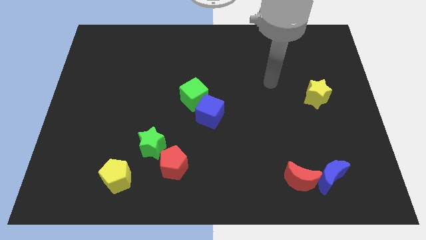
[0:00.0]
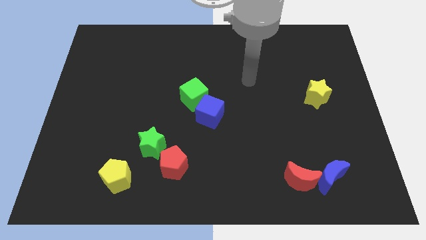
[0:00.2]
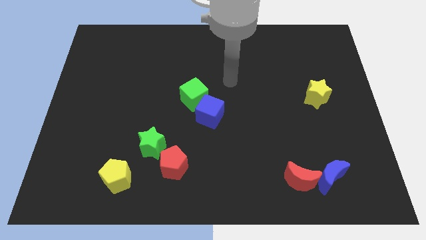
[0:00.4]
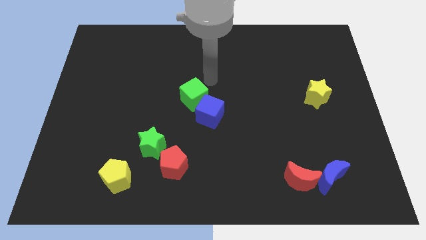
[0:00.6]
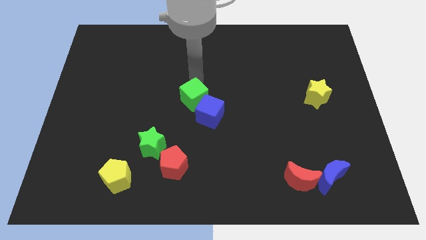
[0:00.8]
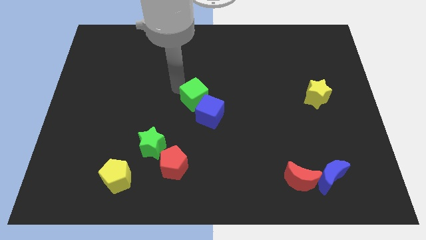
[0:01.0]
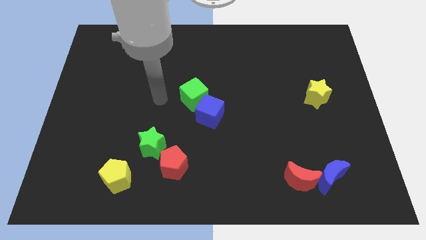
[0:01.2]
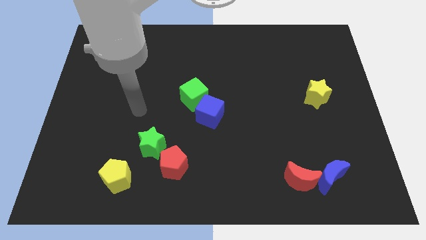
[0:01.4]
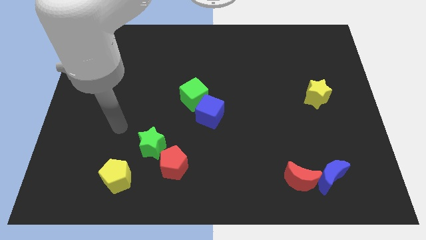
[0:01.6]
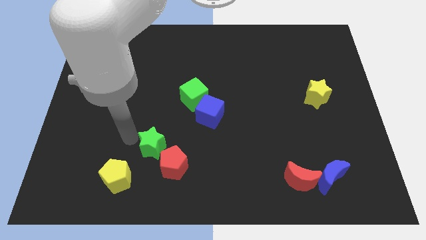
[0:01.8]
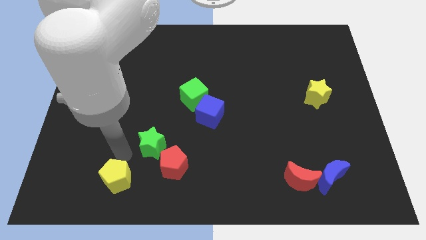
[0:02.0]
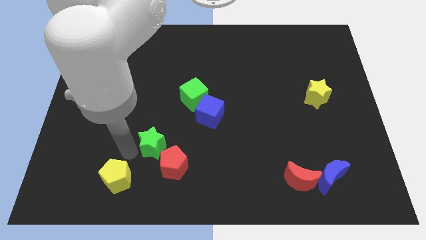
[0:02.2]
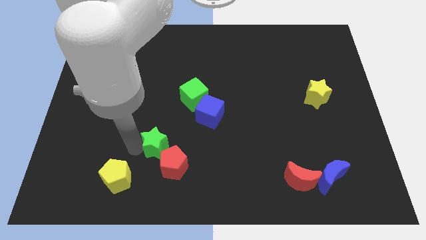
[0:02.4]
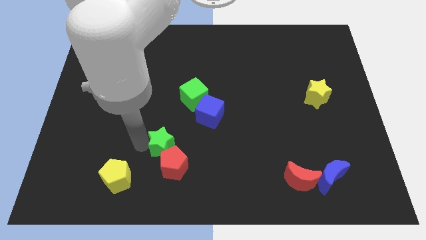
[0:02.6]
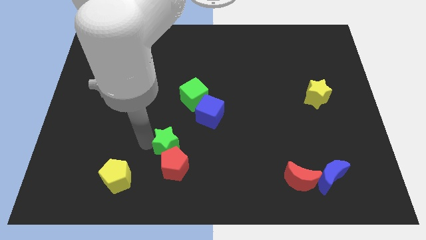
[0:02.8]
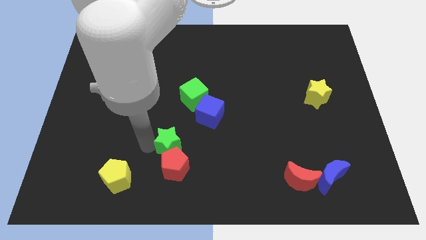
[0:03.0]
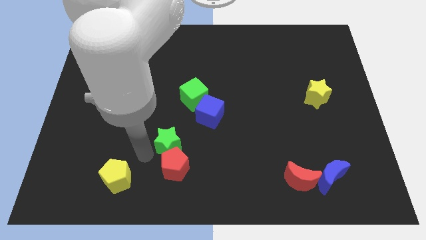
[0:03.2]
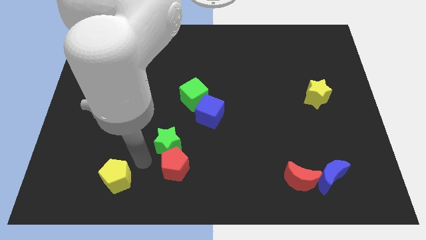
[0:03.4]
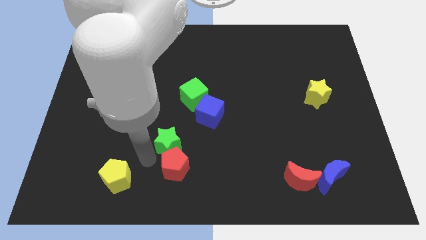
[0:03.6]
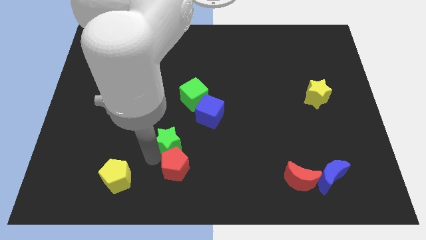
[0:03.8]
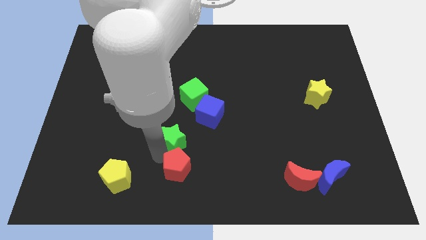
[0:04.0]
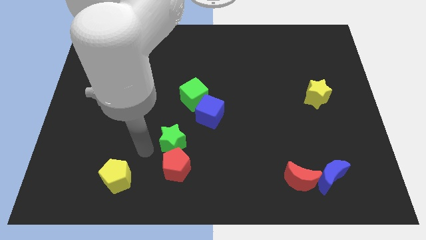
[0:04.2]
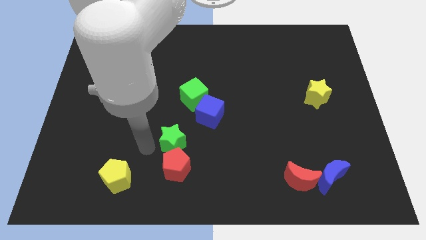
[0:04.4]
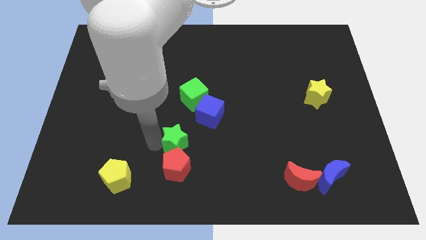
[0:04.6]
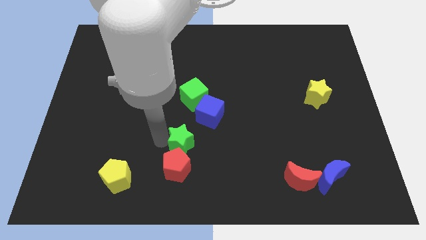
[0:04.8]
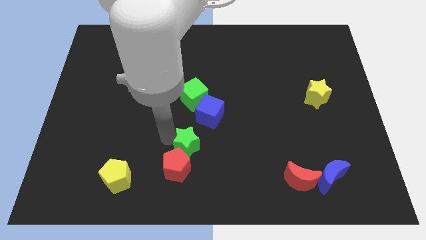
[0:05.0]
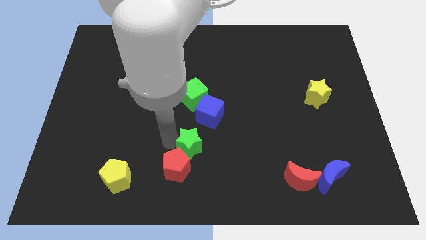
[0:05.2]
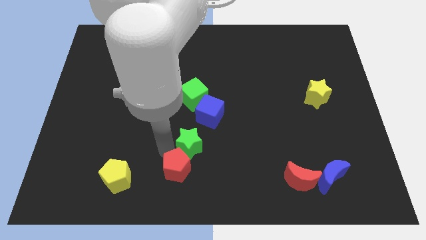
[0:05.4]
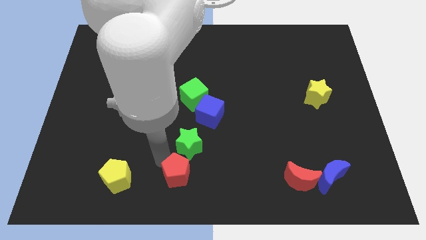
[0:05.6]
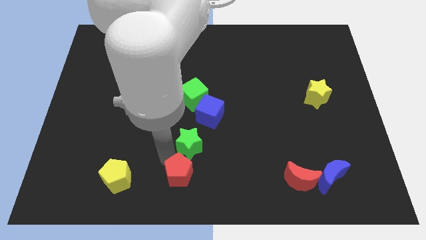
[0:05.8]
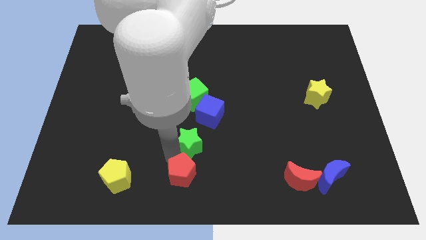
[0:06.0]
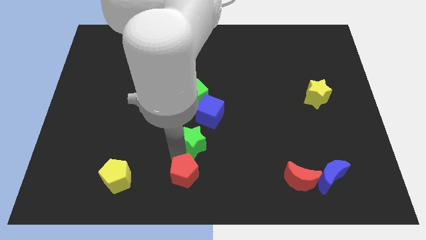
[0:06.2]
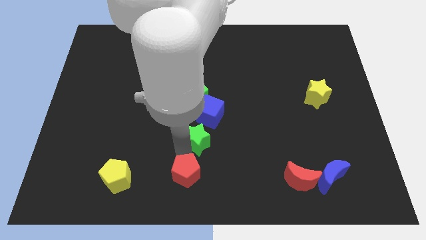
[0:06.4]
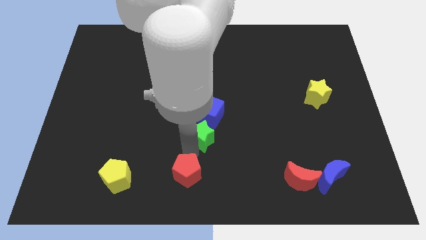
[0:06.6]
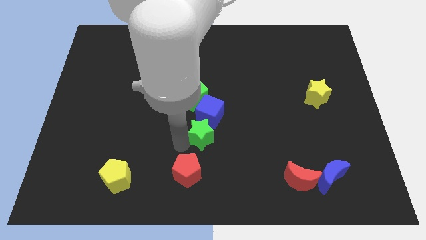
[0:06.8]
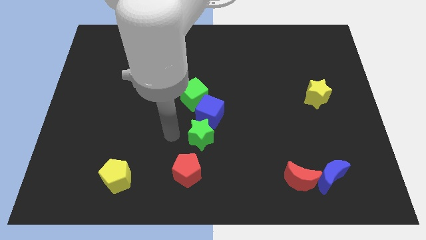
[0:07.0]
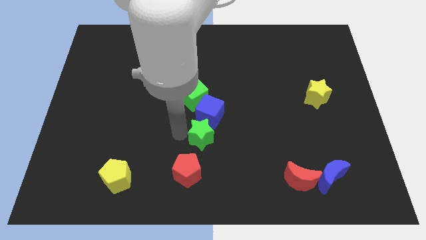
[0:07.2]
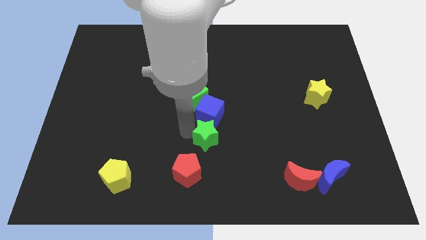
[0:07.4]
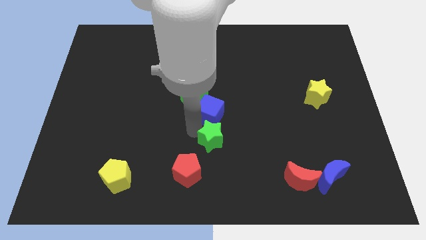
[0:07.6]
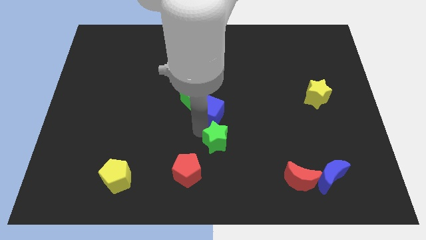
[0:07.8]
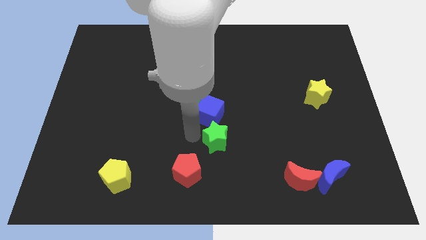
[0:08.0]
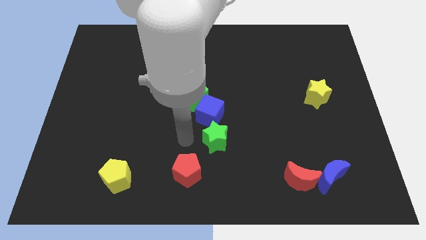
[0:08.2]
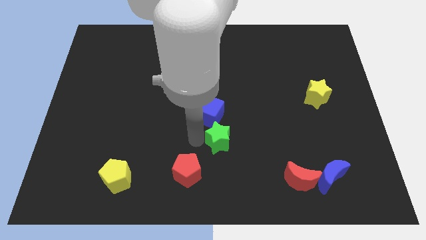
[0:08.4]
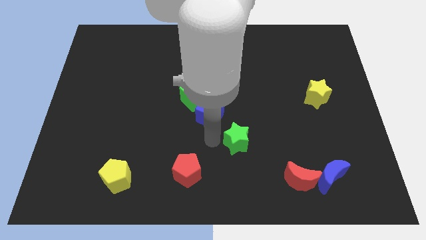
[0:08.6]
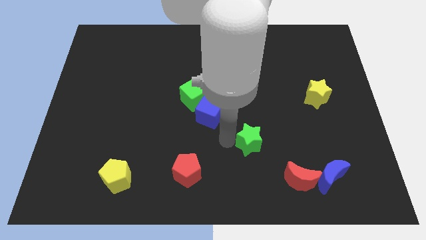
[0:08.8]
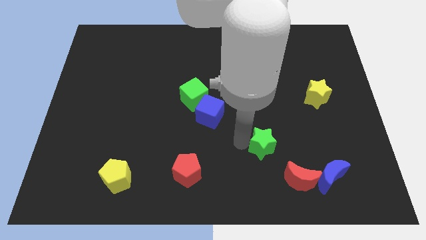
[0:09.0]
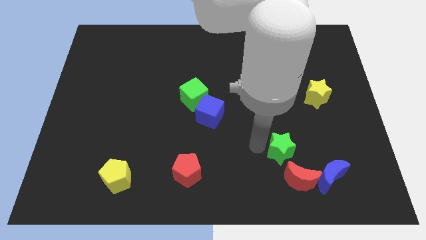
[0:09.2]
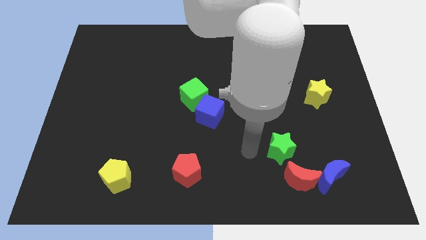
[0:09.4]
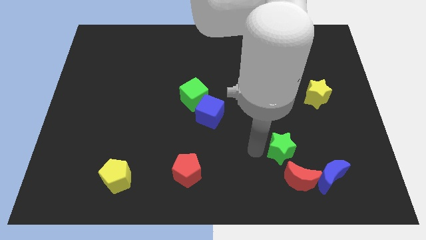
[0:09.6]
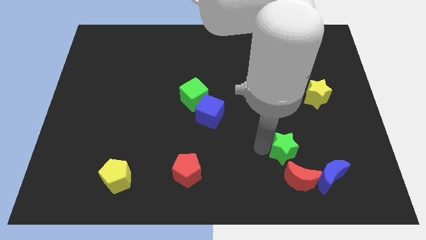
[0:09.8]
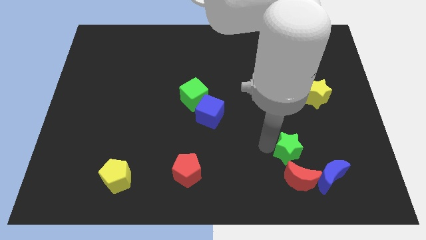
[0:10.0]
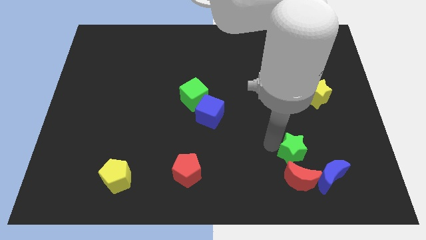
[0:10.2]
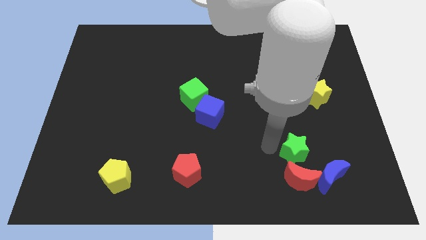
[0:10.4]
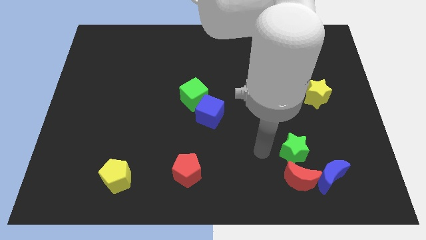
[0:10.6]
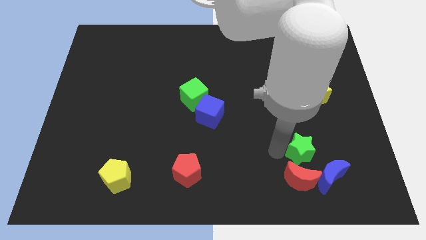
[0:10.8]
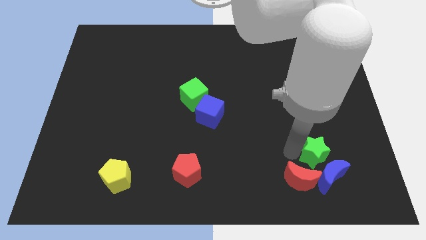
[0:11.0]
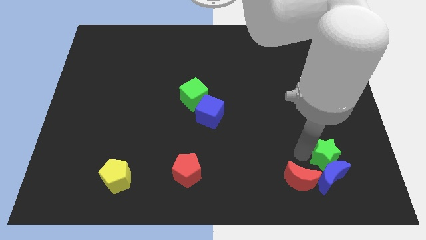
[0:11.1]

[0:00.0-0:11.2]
put the green star to the top right side of the blue moon

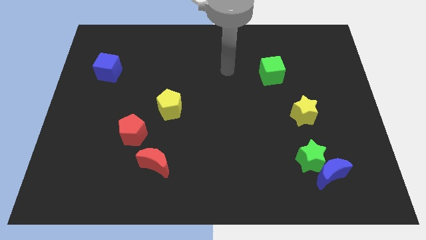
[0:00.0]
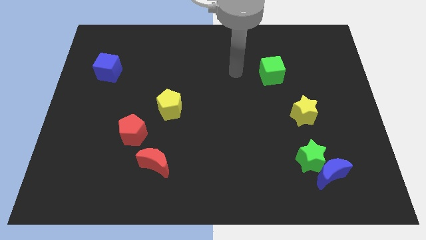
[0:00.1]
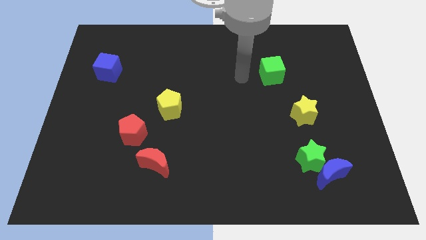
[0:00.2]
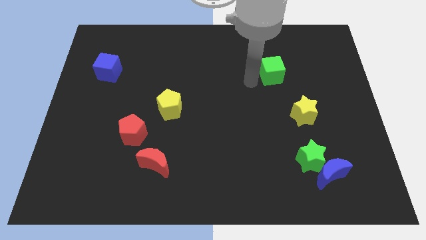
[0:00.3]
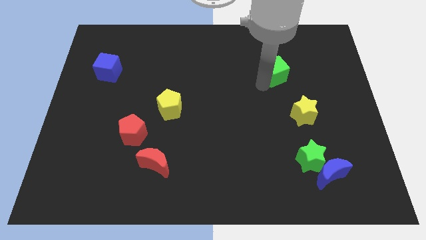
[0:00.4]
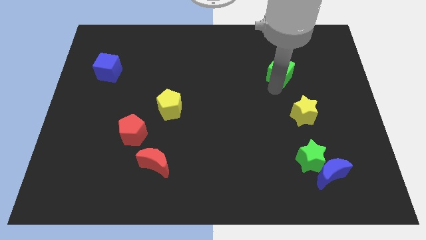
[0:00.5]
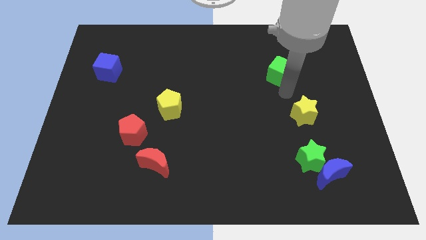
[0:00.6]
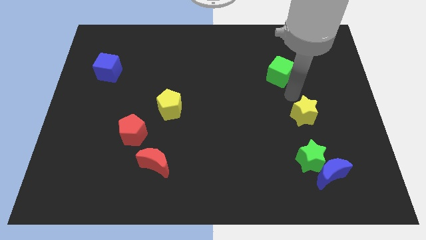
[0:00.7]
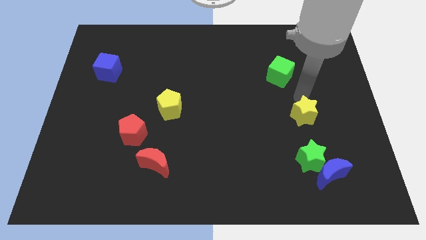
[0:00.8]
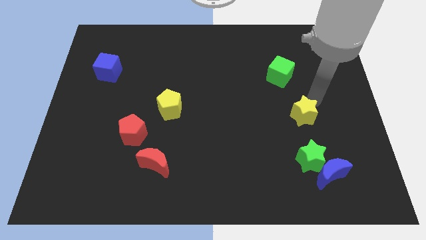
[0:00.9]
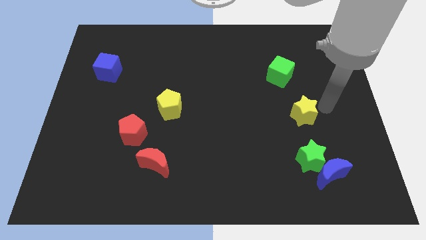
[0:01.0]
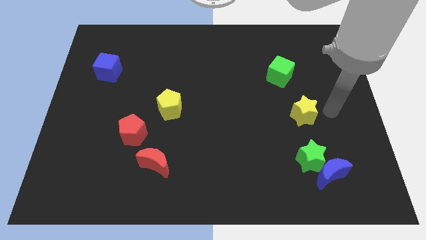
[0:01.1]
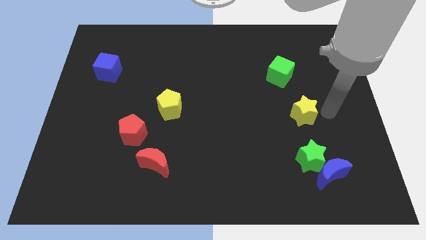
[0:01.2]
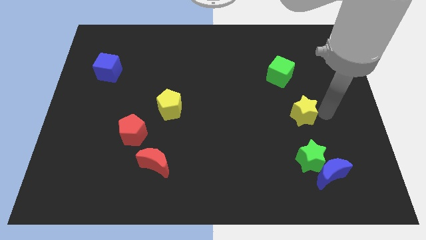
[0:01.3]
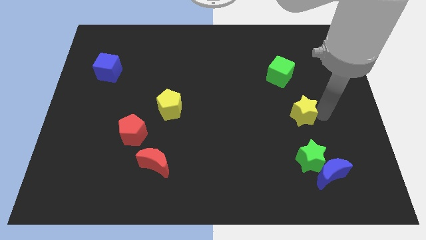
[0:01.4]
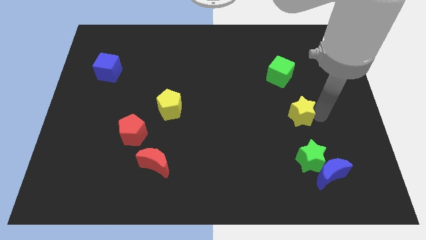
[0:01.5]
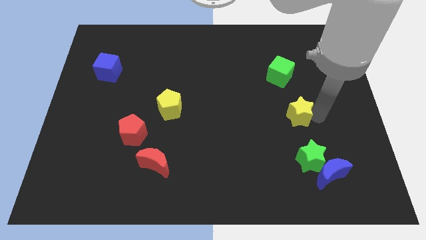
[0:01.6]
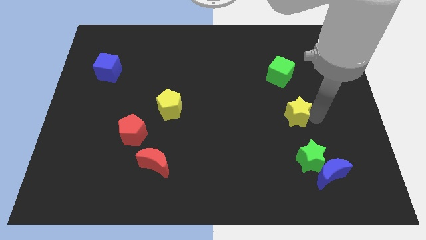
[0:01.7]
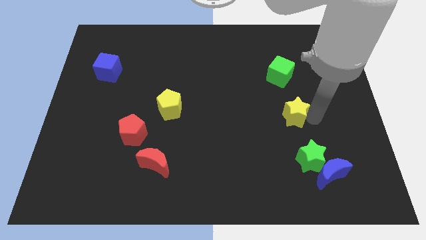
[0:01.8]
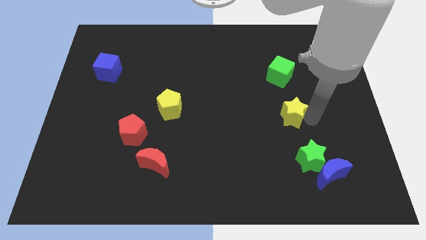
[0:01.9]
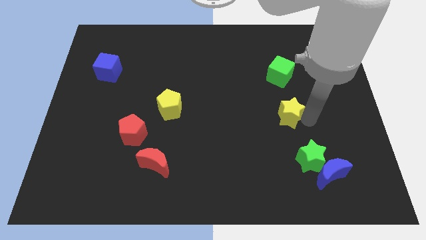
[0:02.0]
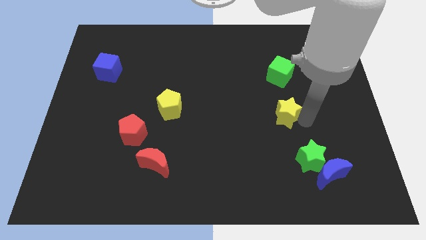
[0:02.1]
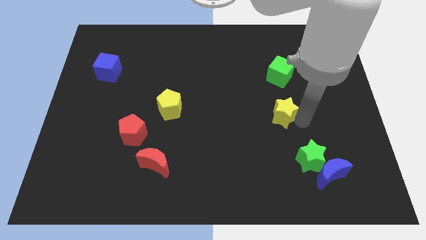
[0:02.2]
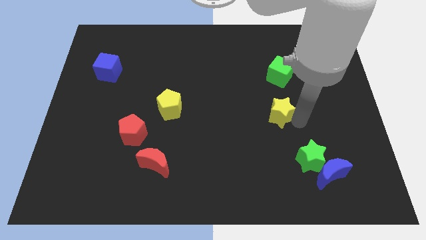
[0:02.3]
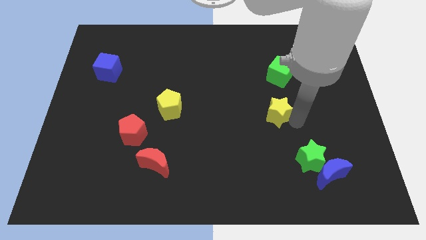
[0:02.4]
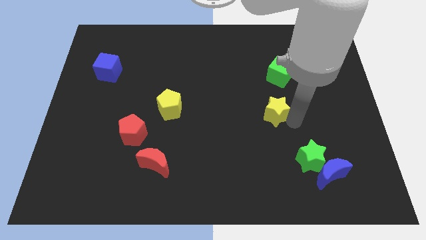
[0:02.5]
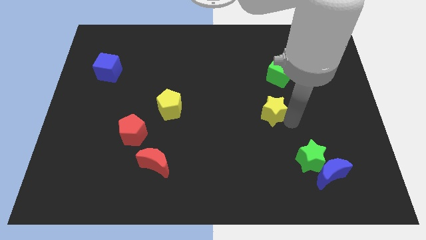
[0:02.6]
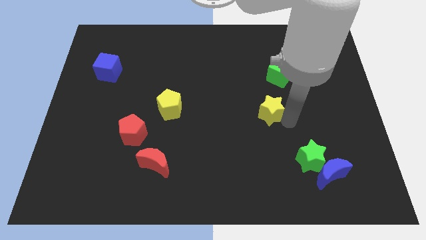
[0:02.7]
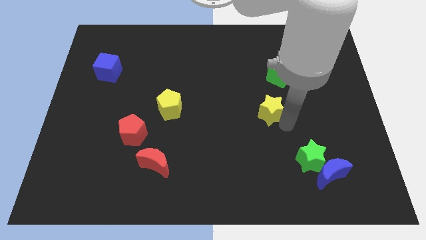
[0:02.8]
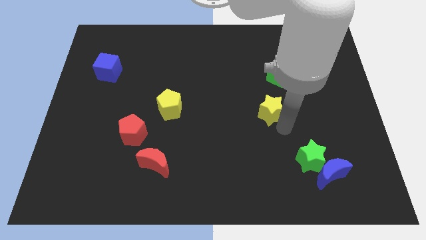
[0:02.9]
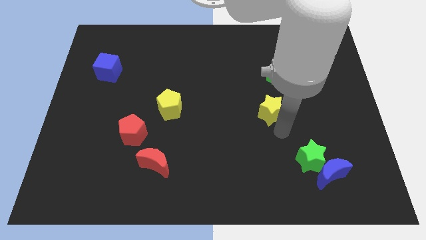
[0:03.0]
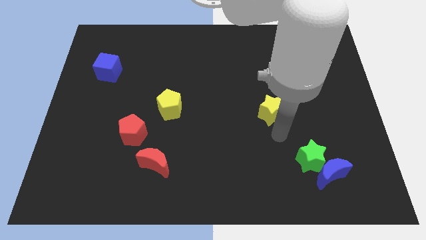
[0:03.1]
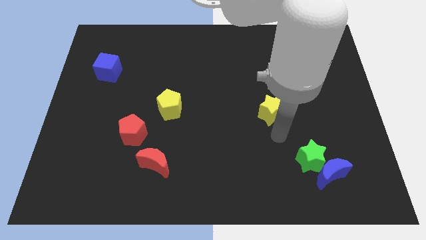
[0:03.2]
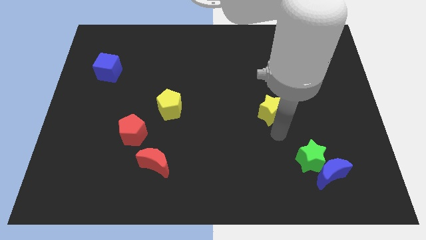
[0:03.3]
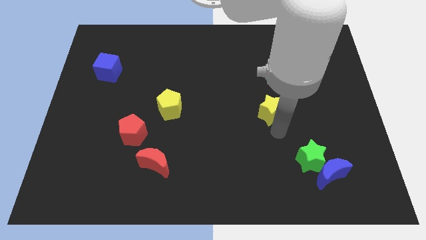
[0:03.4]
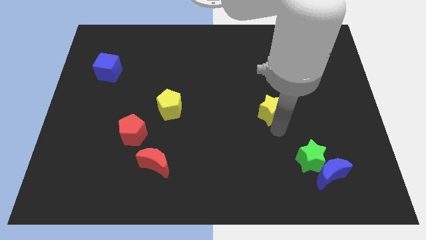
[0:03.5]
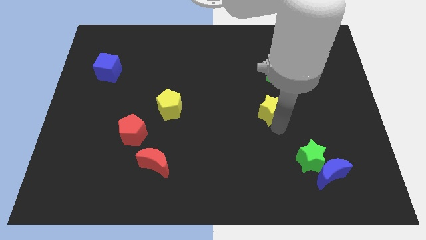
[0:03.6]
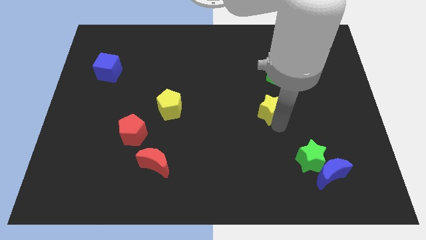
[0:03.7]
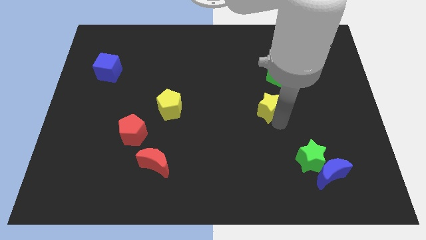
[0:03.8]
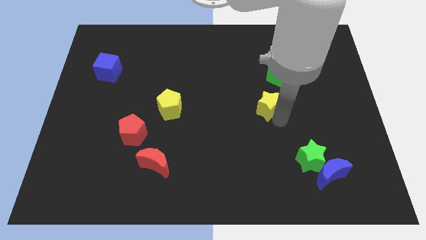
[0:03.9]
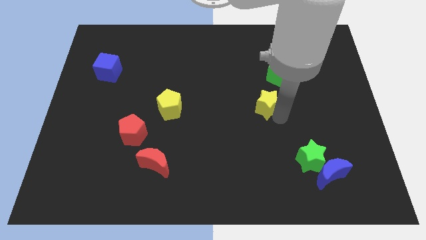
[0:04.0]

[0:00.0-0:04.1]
push the yellow star to the bottom left side of the green cube
